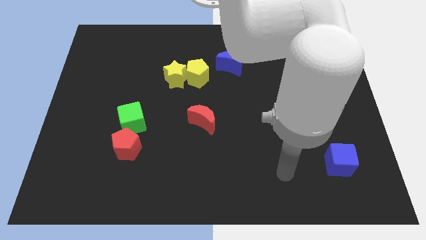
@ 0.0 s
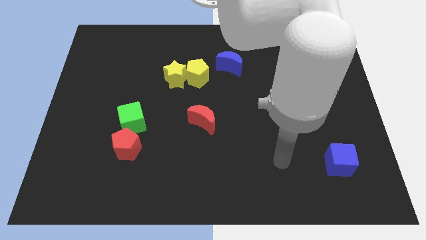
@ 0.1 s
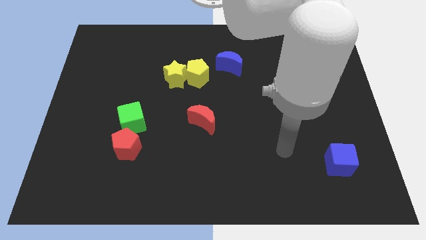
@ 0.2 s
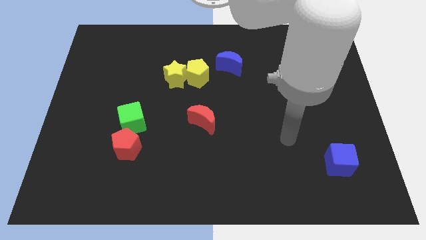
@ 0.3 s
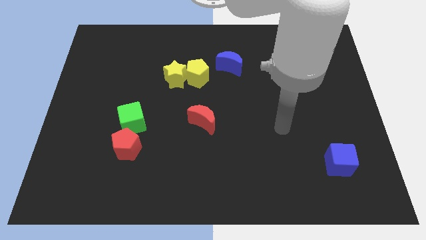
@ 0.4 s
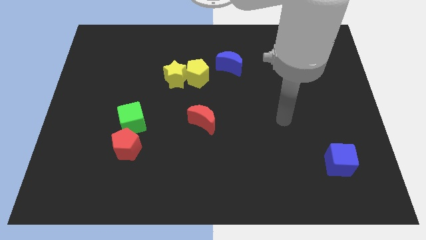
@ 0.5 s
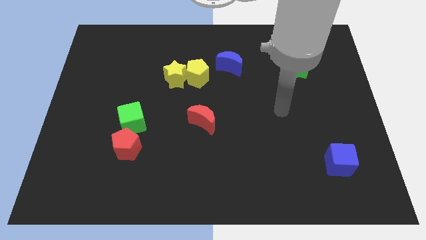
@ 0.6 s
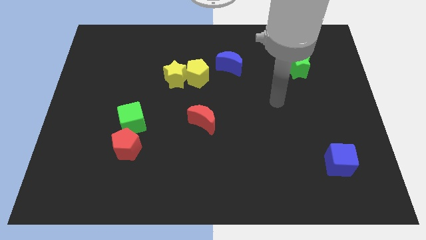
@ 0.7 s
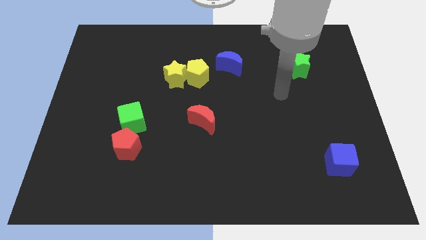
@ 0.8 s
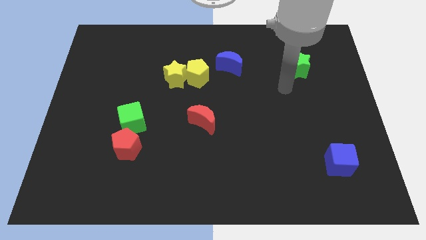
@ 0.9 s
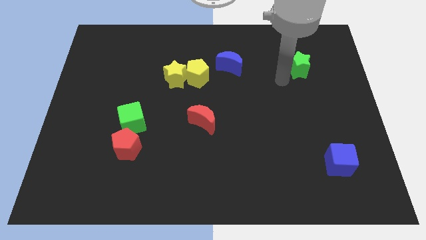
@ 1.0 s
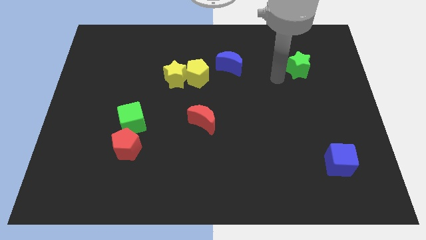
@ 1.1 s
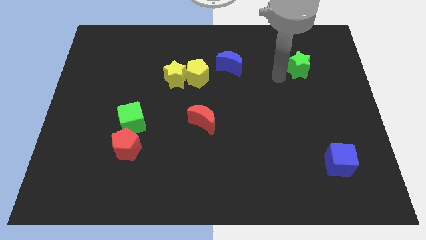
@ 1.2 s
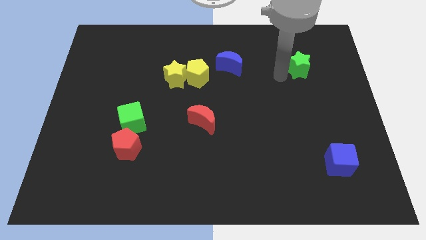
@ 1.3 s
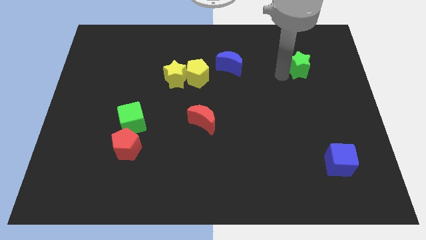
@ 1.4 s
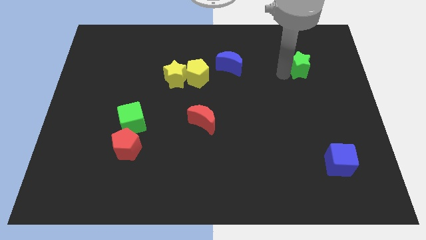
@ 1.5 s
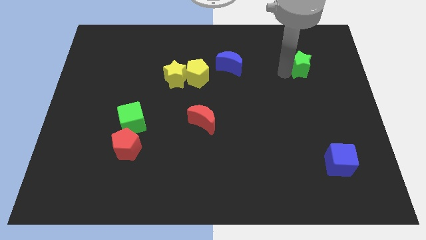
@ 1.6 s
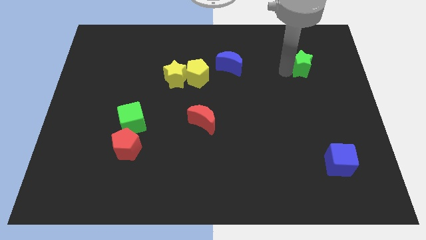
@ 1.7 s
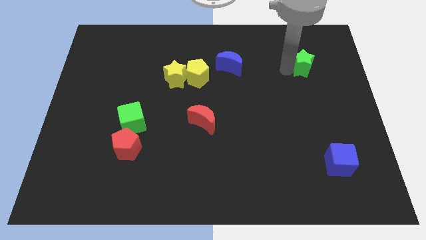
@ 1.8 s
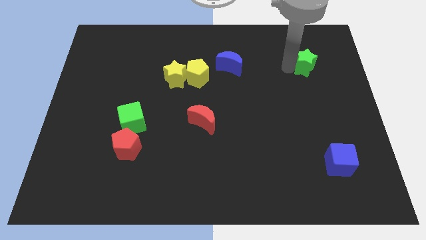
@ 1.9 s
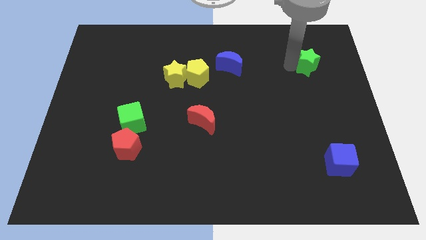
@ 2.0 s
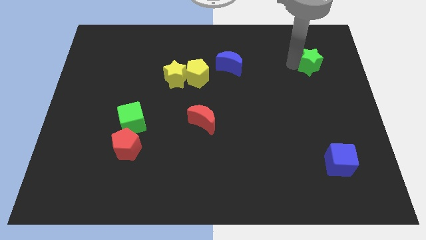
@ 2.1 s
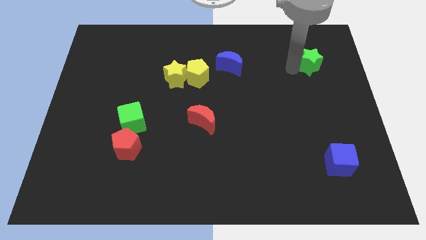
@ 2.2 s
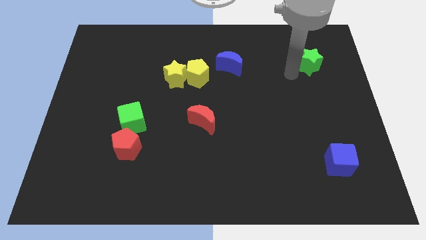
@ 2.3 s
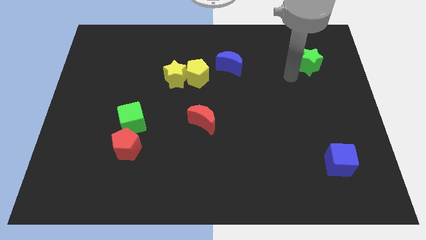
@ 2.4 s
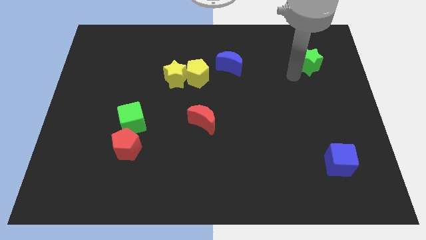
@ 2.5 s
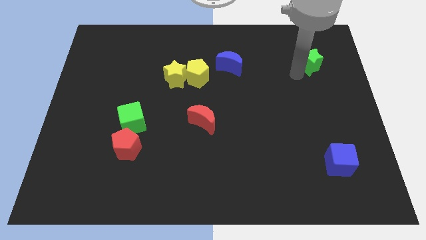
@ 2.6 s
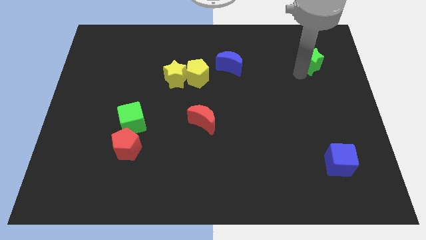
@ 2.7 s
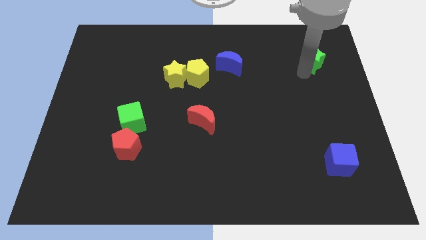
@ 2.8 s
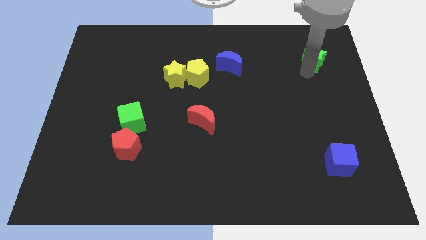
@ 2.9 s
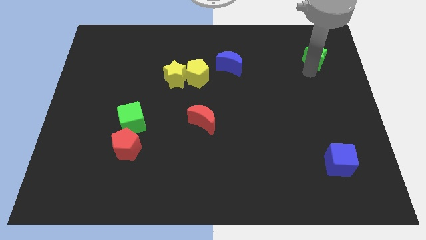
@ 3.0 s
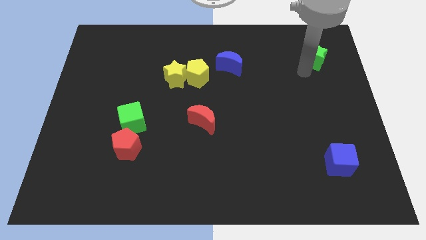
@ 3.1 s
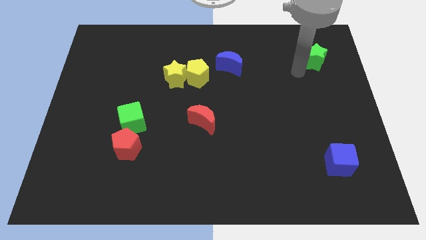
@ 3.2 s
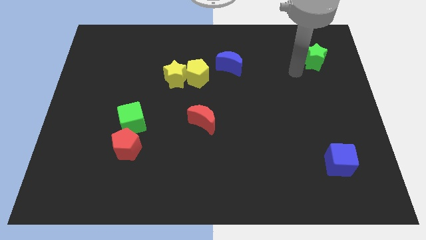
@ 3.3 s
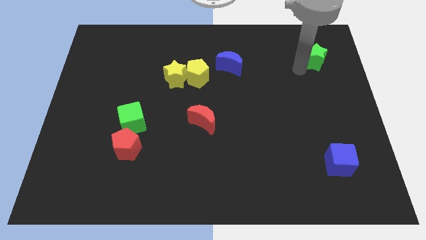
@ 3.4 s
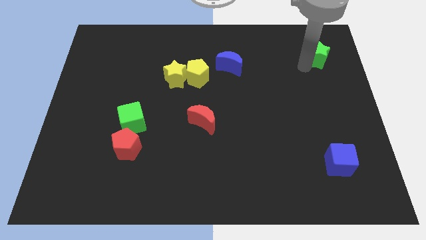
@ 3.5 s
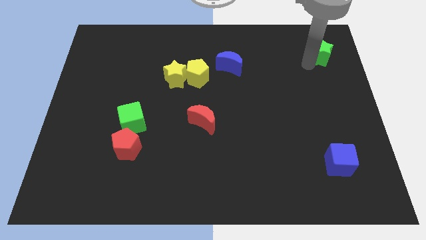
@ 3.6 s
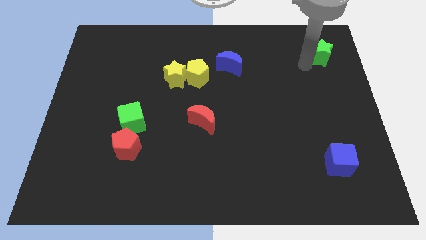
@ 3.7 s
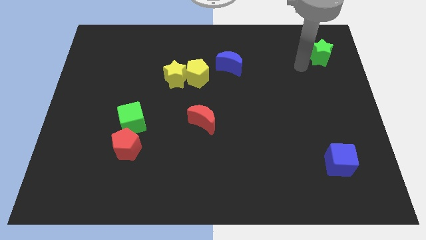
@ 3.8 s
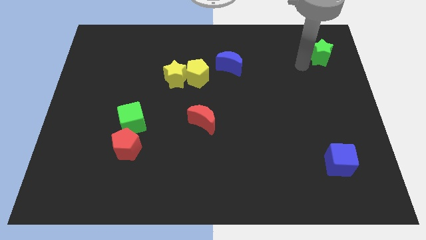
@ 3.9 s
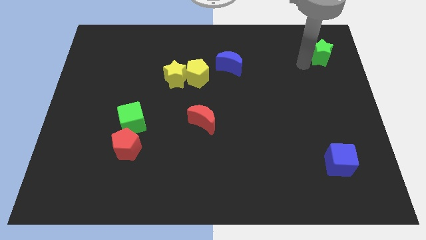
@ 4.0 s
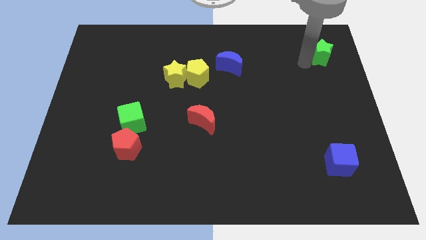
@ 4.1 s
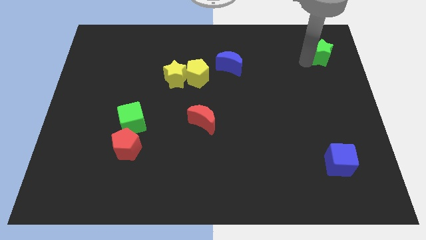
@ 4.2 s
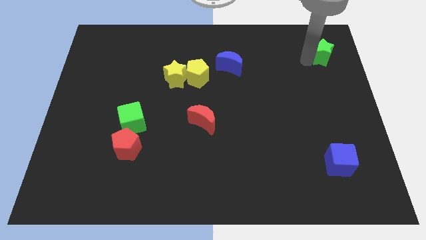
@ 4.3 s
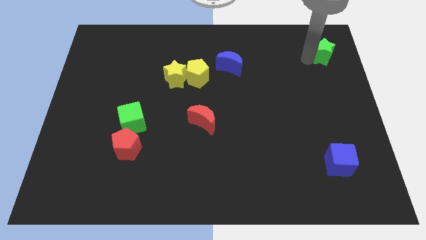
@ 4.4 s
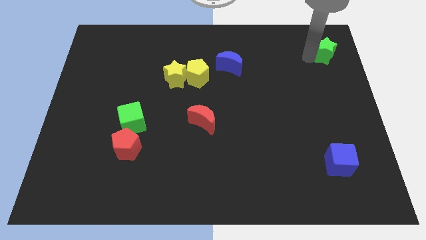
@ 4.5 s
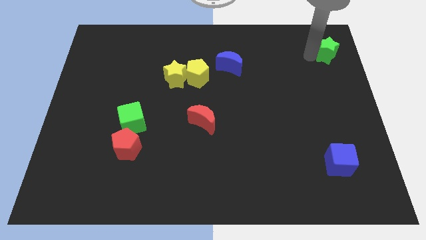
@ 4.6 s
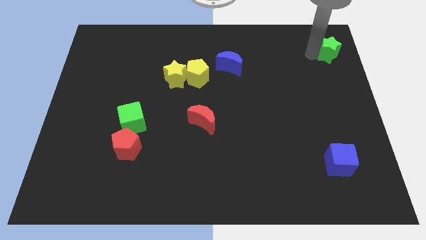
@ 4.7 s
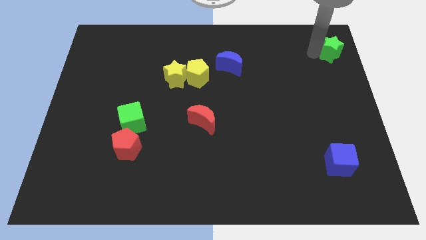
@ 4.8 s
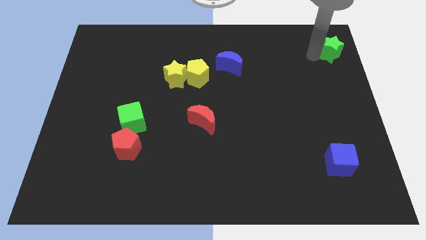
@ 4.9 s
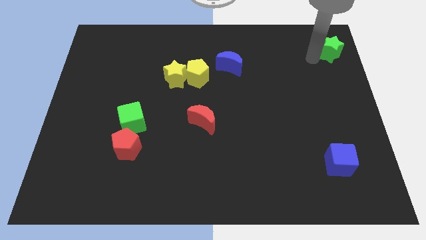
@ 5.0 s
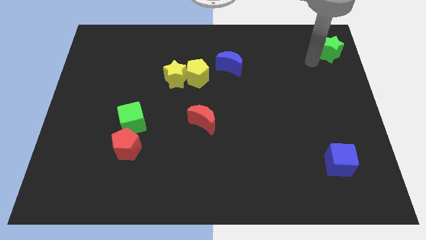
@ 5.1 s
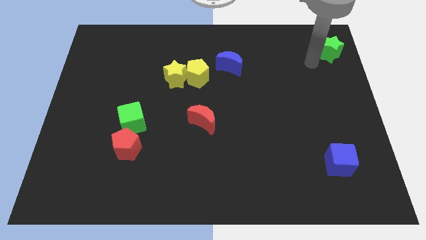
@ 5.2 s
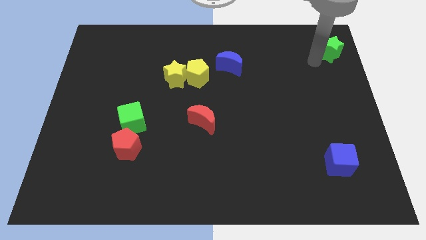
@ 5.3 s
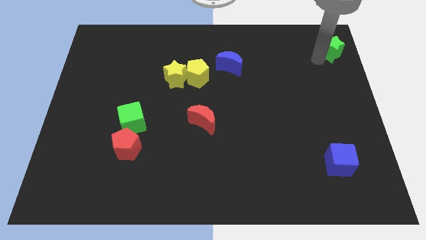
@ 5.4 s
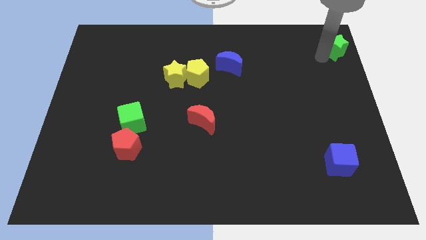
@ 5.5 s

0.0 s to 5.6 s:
move the green star to the top right of the board

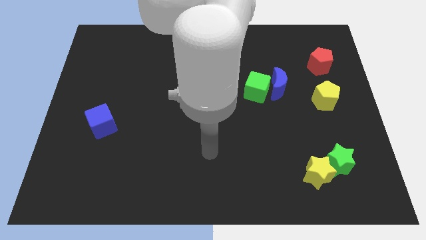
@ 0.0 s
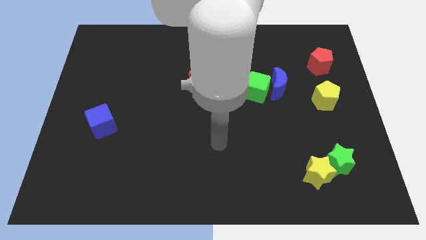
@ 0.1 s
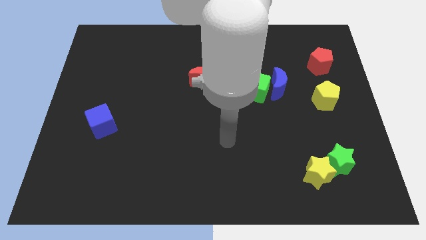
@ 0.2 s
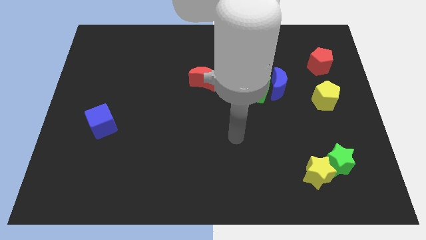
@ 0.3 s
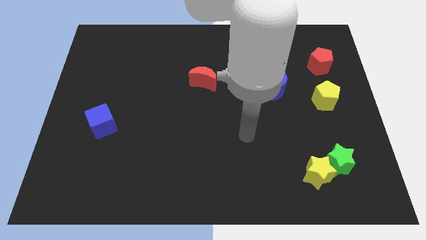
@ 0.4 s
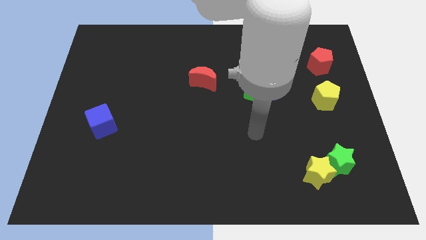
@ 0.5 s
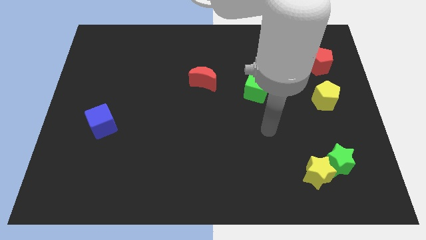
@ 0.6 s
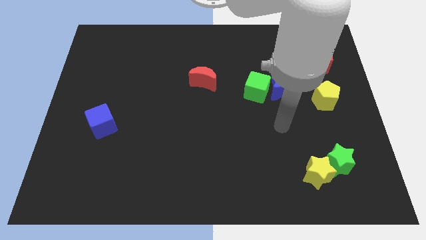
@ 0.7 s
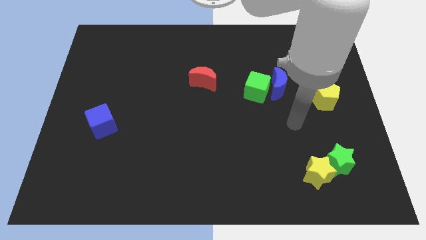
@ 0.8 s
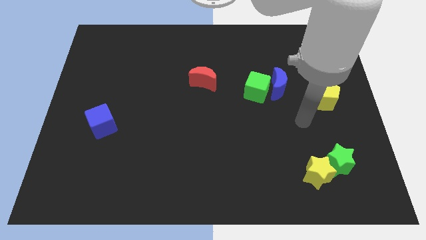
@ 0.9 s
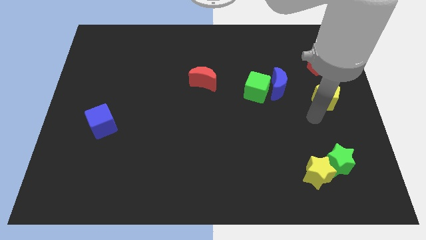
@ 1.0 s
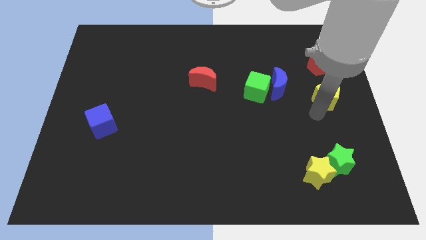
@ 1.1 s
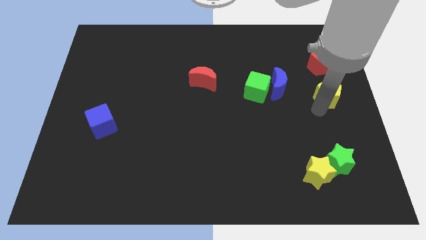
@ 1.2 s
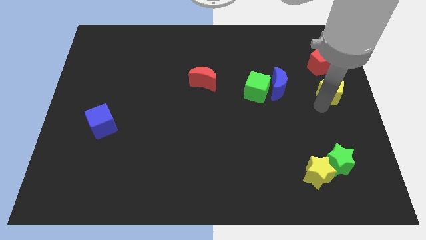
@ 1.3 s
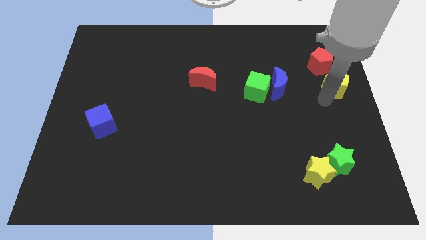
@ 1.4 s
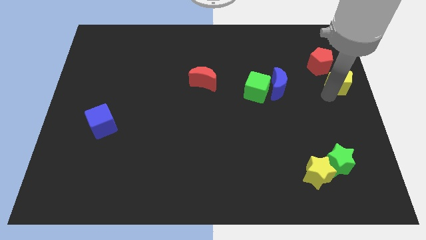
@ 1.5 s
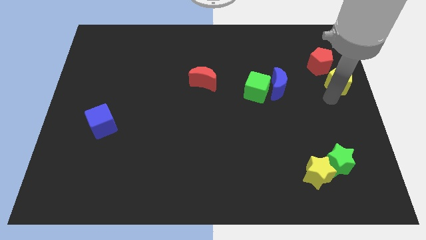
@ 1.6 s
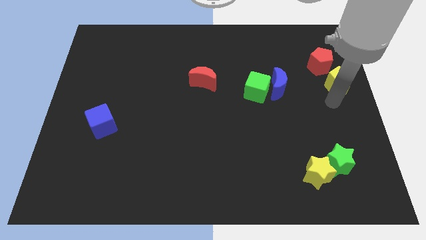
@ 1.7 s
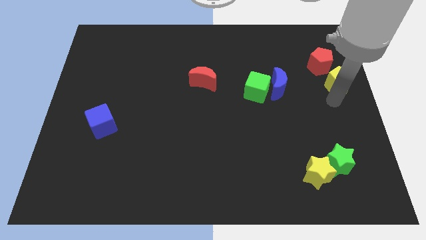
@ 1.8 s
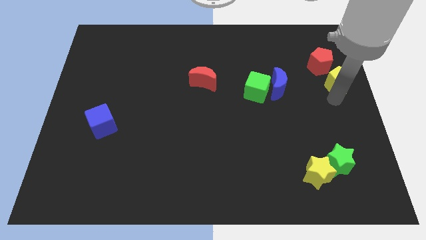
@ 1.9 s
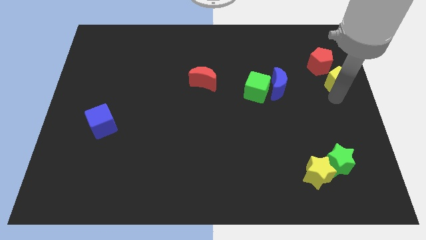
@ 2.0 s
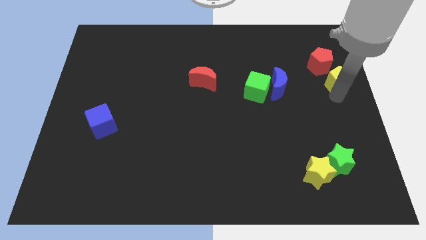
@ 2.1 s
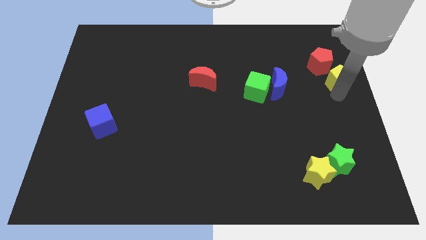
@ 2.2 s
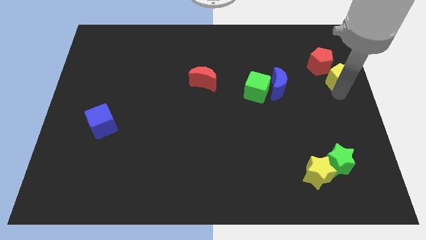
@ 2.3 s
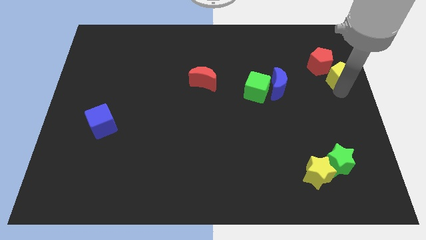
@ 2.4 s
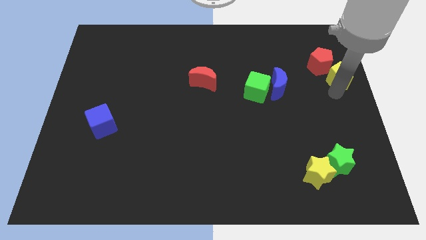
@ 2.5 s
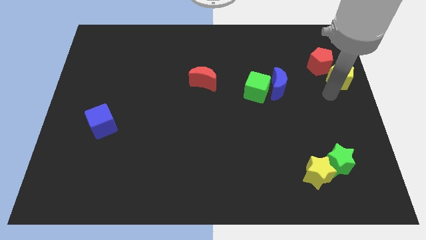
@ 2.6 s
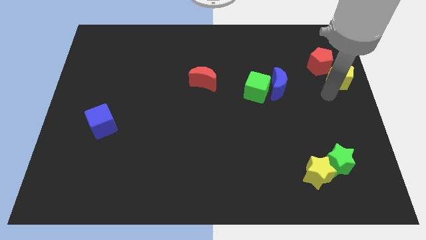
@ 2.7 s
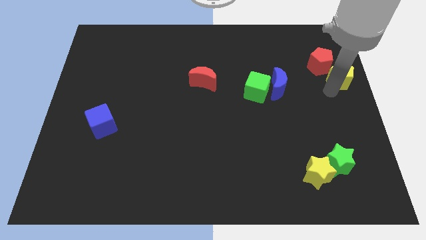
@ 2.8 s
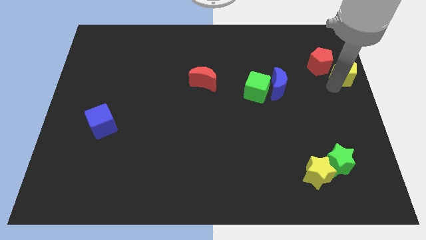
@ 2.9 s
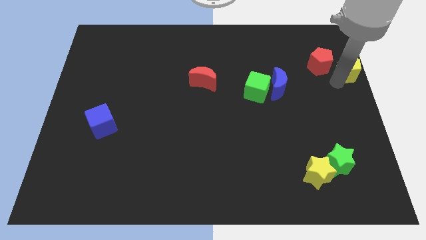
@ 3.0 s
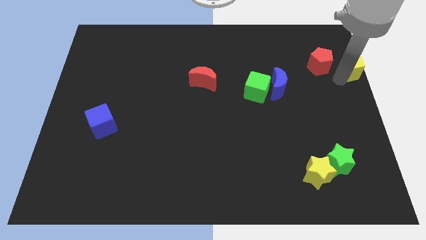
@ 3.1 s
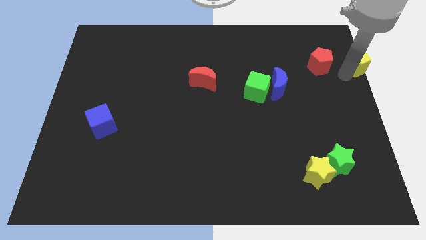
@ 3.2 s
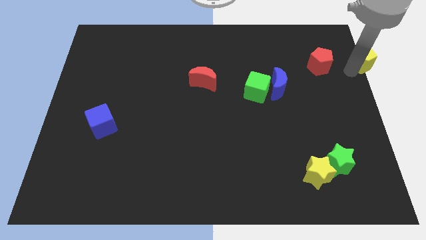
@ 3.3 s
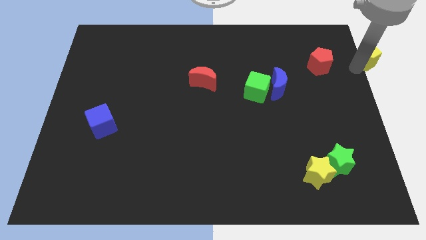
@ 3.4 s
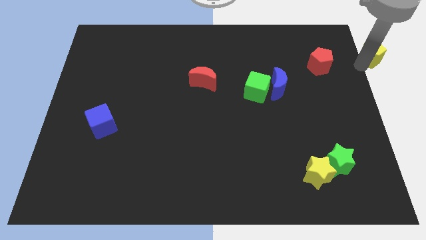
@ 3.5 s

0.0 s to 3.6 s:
push the yellow pentagon to the top right corner
